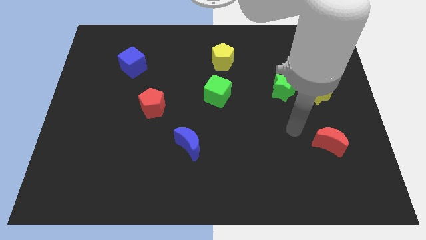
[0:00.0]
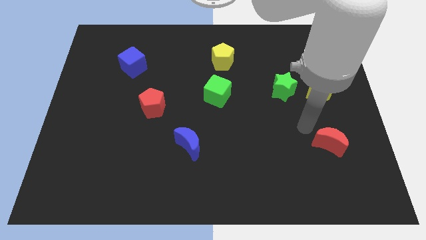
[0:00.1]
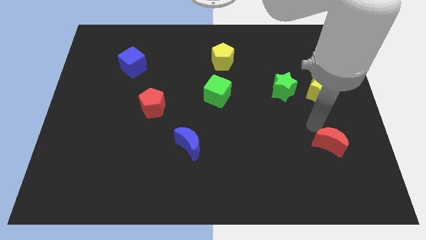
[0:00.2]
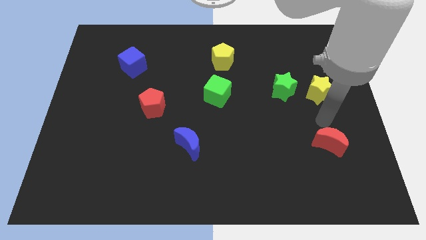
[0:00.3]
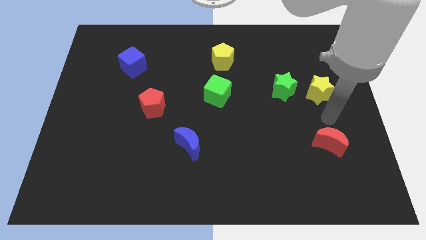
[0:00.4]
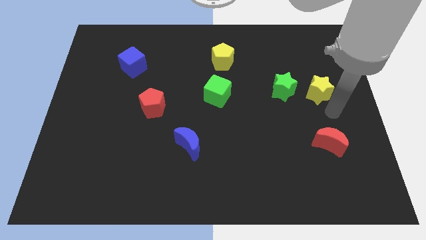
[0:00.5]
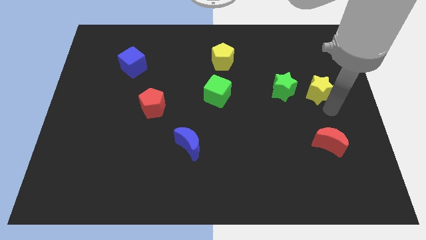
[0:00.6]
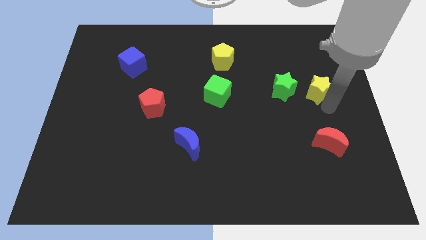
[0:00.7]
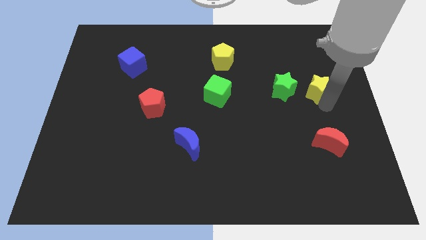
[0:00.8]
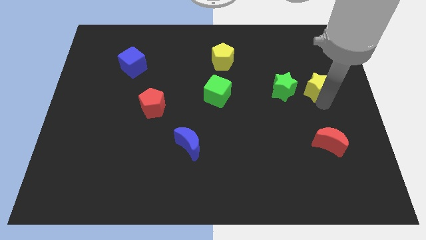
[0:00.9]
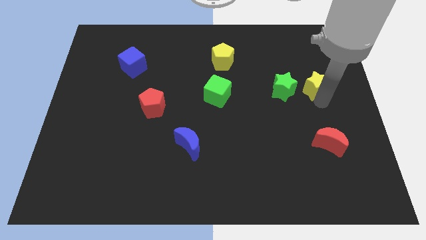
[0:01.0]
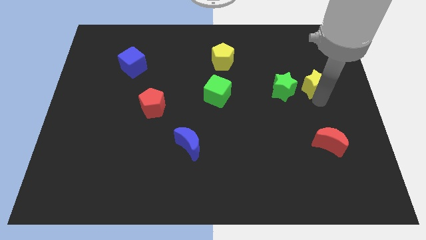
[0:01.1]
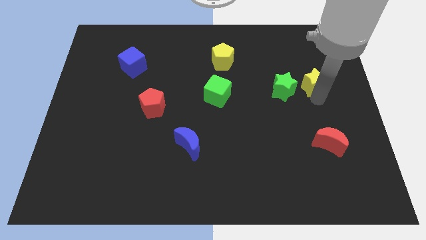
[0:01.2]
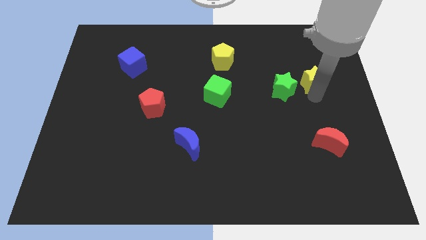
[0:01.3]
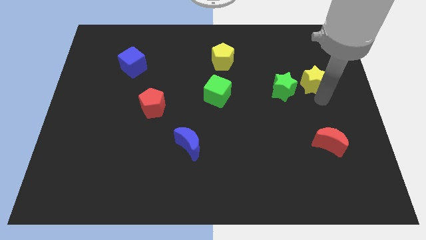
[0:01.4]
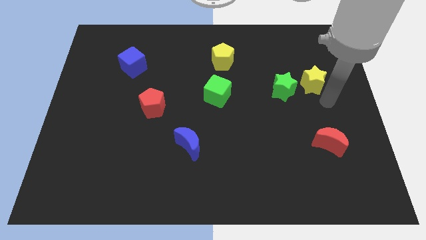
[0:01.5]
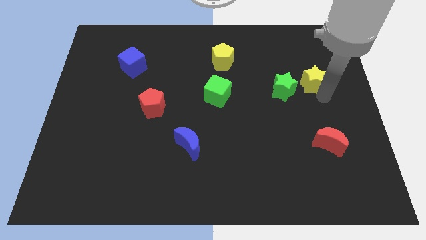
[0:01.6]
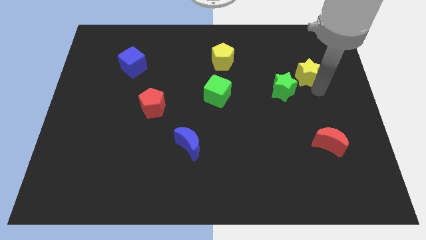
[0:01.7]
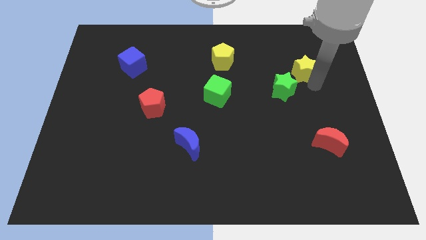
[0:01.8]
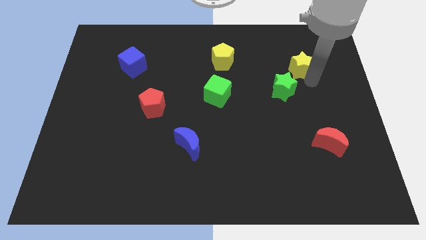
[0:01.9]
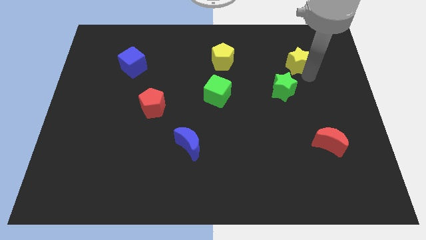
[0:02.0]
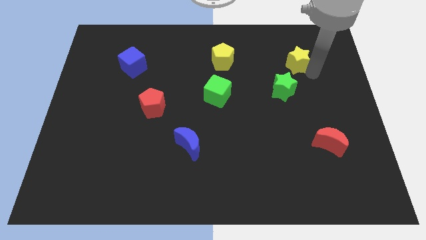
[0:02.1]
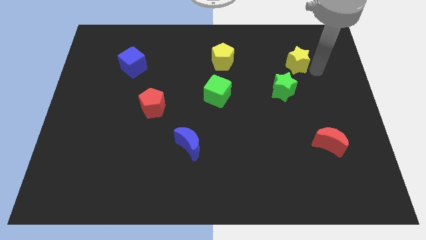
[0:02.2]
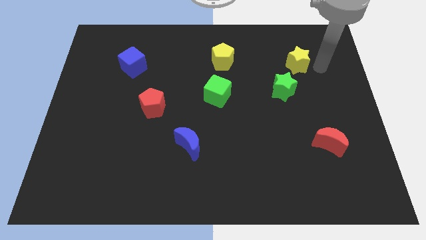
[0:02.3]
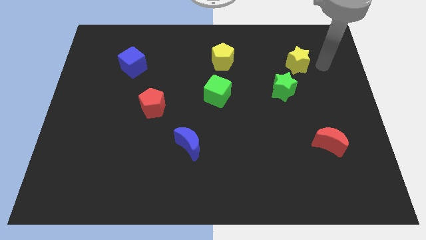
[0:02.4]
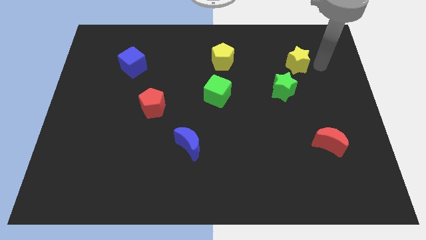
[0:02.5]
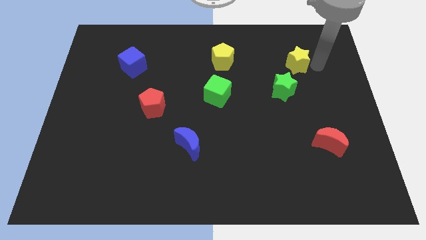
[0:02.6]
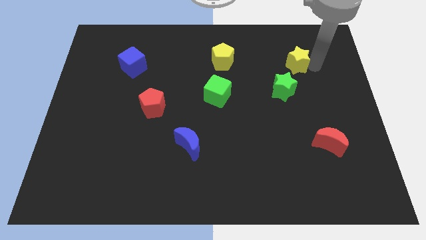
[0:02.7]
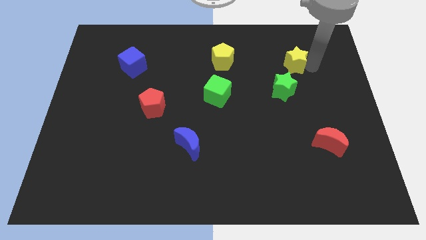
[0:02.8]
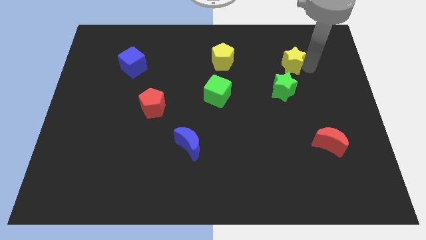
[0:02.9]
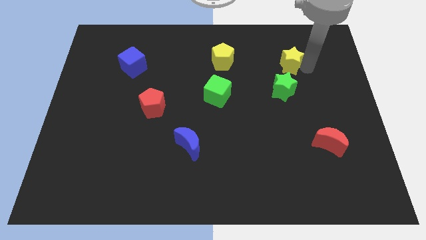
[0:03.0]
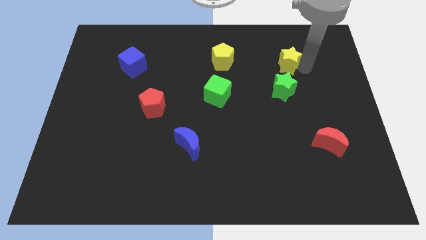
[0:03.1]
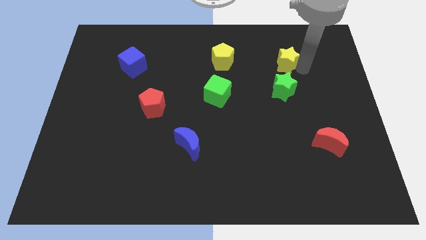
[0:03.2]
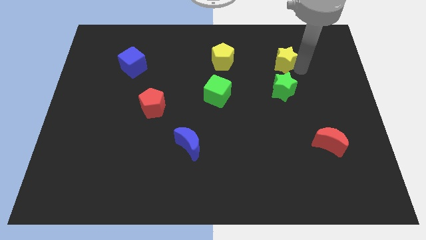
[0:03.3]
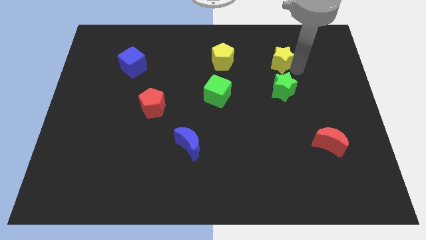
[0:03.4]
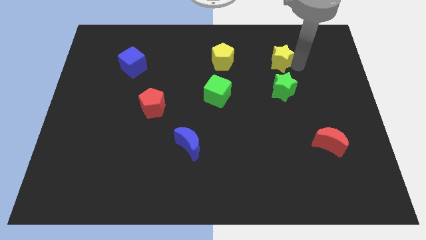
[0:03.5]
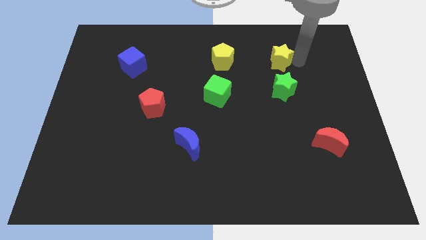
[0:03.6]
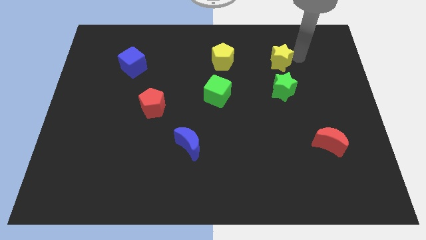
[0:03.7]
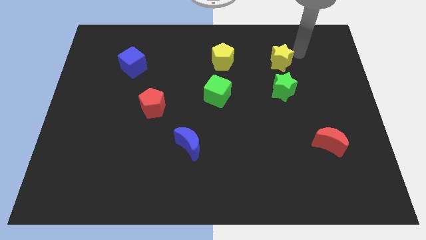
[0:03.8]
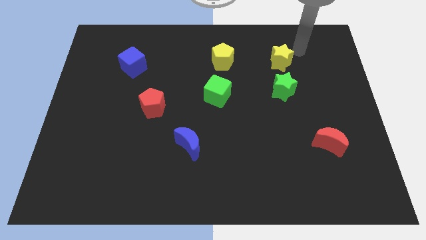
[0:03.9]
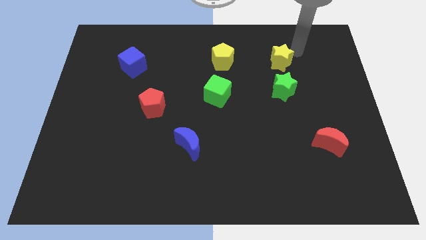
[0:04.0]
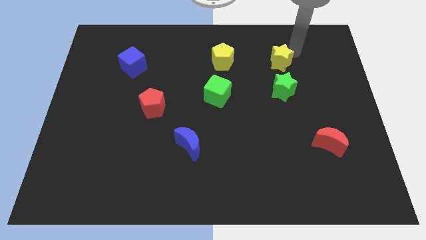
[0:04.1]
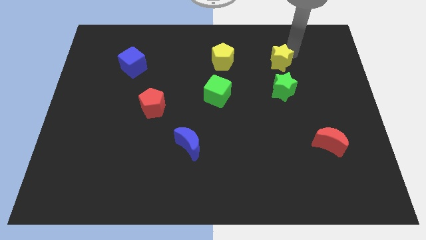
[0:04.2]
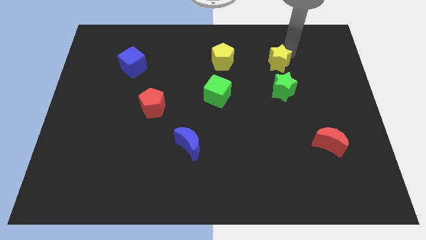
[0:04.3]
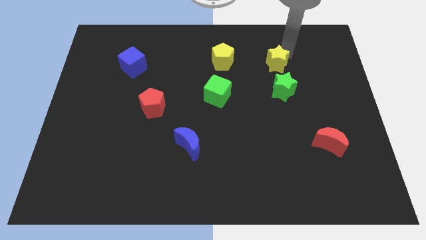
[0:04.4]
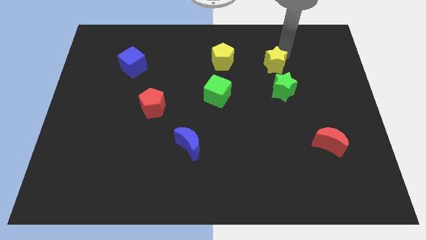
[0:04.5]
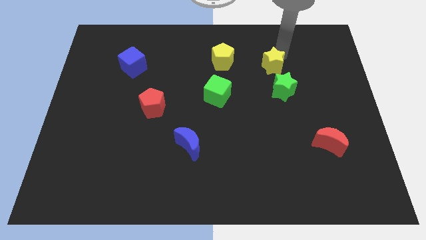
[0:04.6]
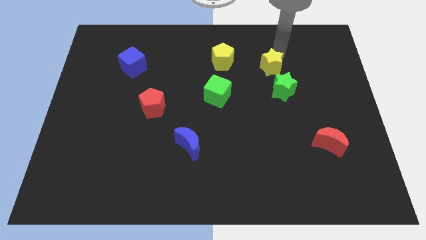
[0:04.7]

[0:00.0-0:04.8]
put the yellow star to the top left of the green star

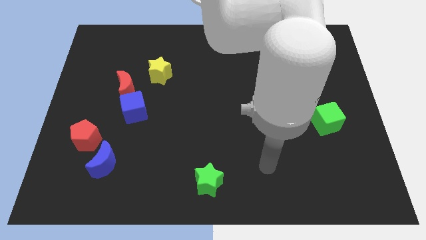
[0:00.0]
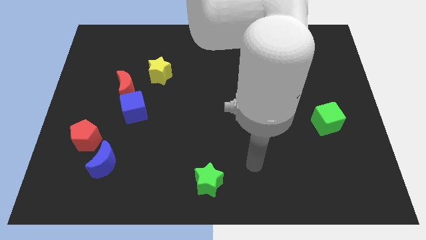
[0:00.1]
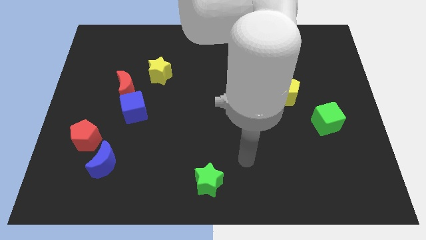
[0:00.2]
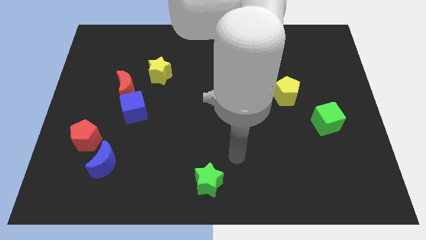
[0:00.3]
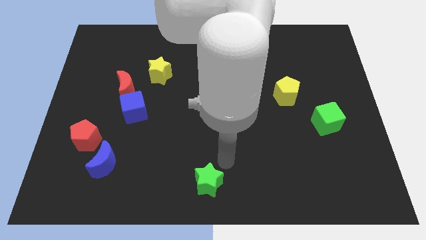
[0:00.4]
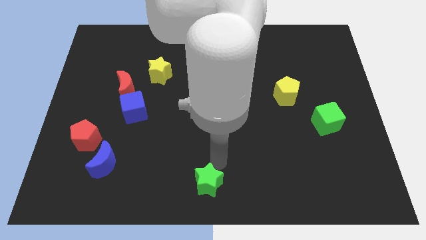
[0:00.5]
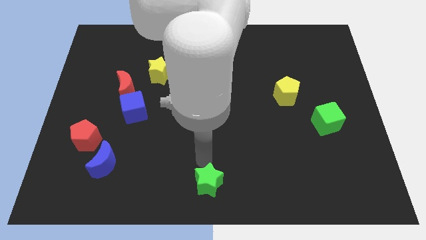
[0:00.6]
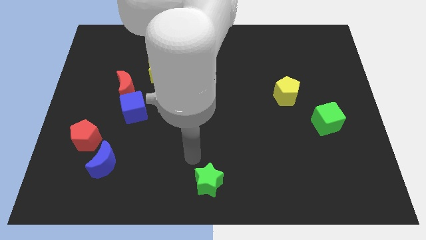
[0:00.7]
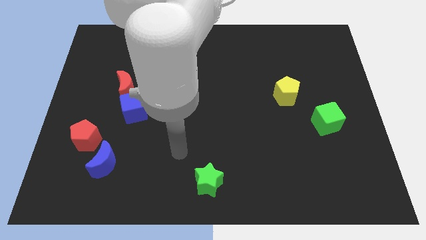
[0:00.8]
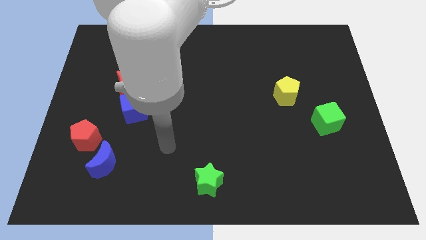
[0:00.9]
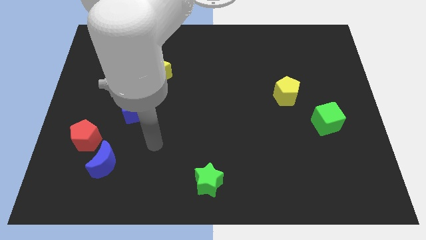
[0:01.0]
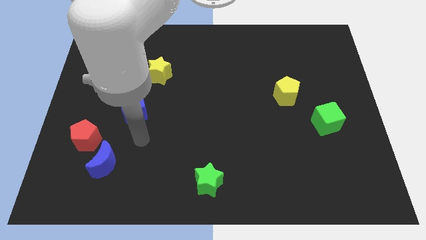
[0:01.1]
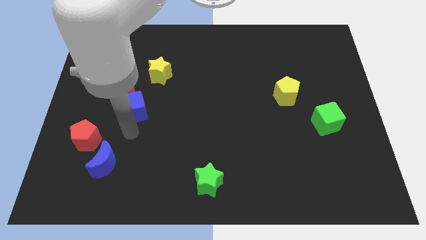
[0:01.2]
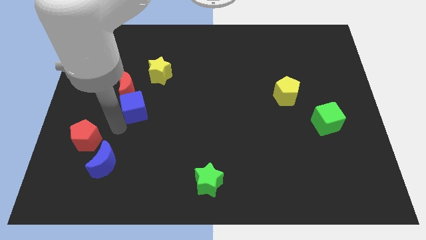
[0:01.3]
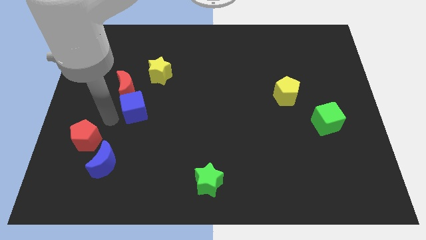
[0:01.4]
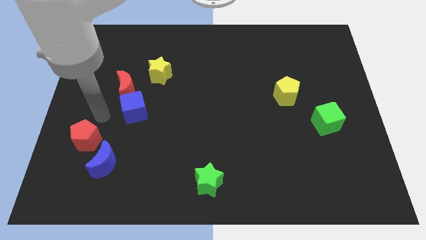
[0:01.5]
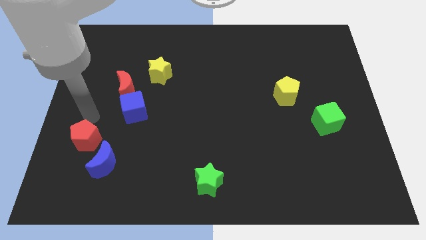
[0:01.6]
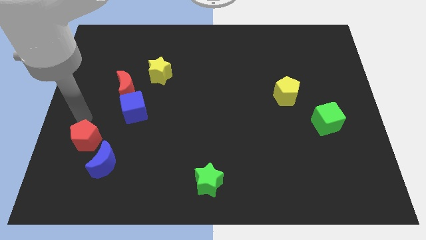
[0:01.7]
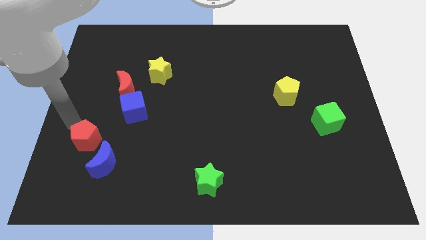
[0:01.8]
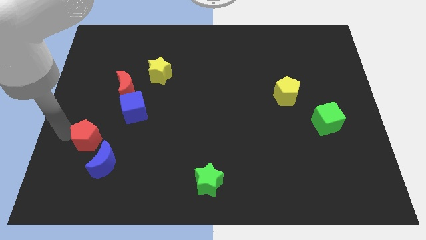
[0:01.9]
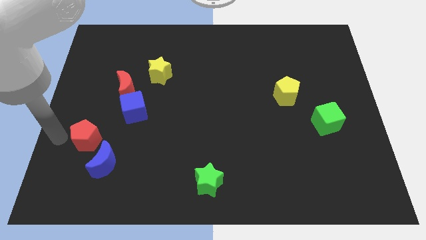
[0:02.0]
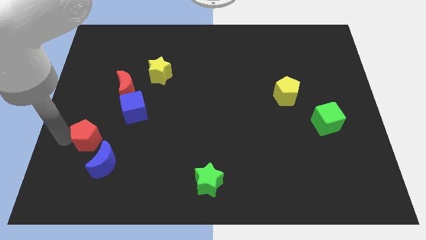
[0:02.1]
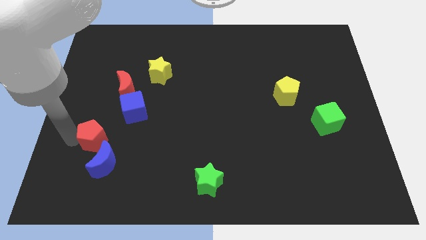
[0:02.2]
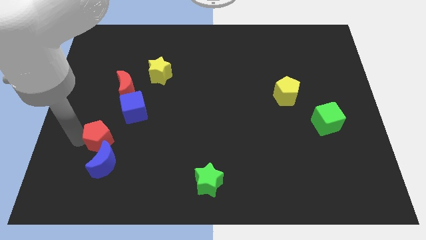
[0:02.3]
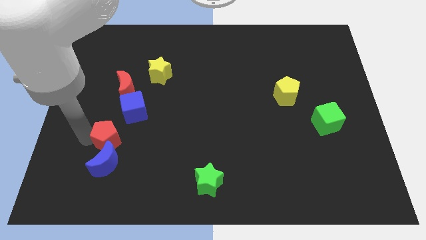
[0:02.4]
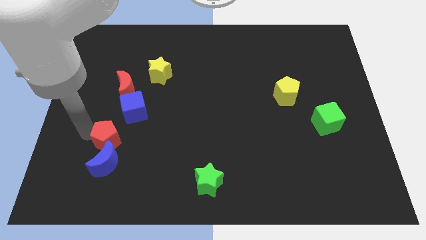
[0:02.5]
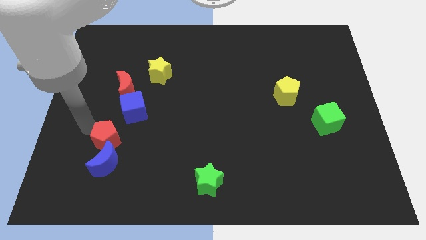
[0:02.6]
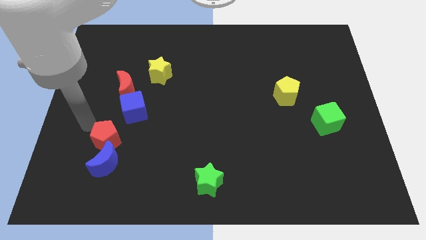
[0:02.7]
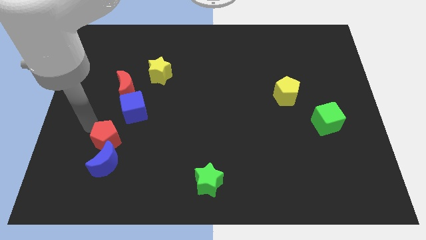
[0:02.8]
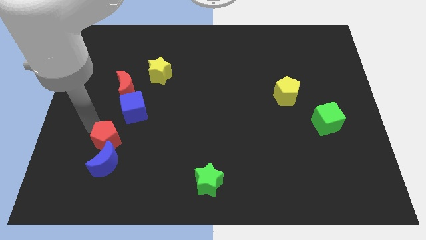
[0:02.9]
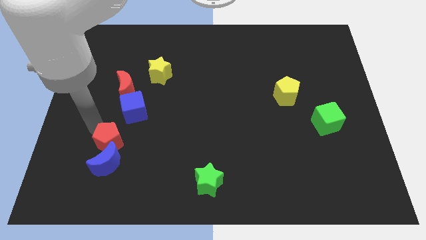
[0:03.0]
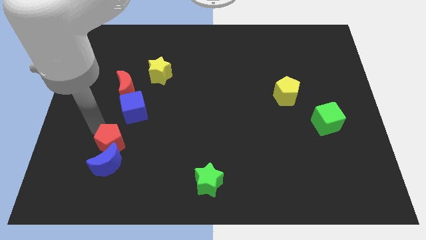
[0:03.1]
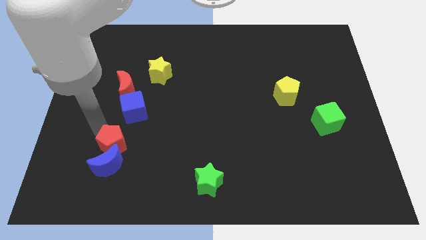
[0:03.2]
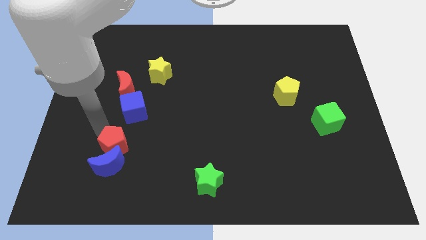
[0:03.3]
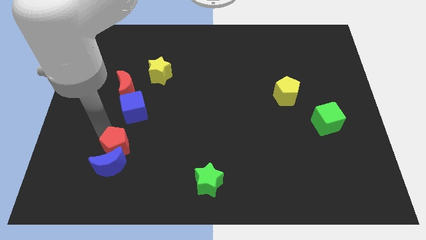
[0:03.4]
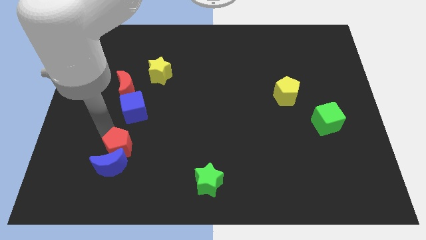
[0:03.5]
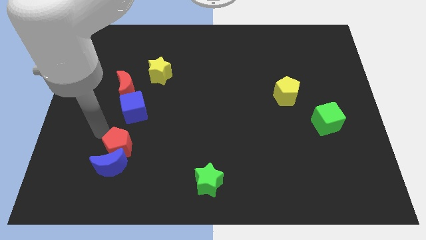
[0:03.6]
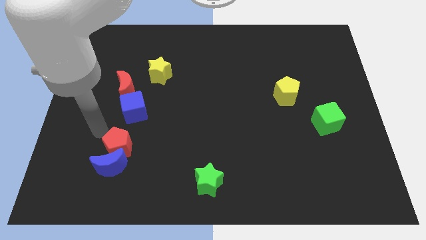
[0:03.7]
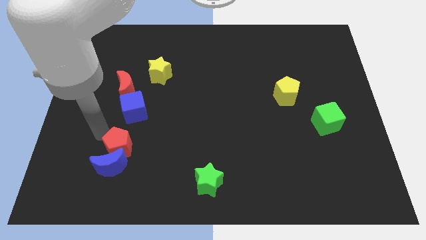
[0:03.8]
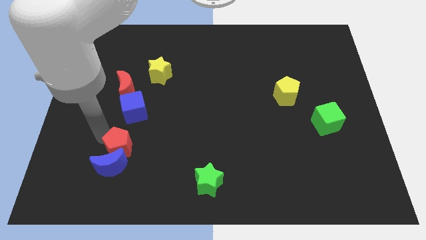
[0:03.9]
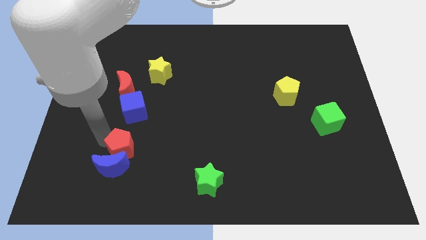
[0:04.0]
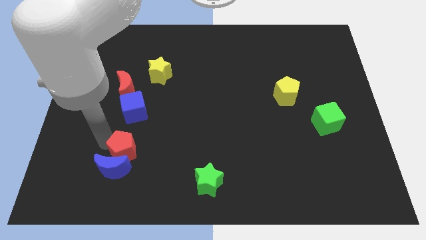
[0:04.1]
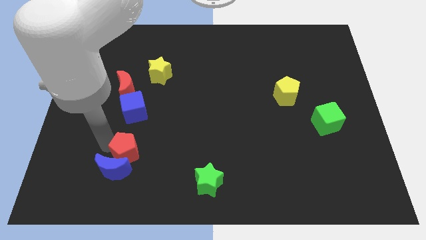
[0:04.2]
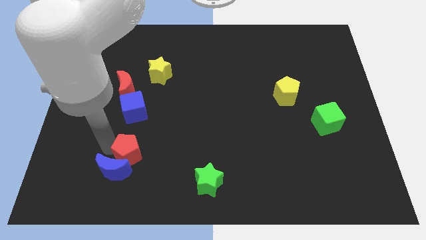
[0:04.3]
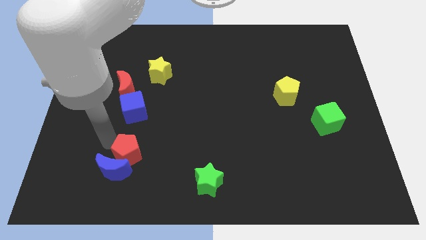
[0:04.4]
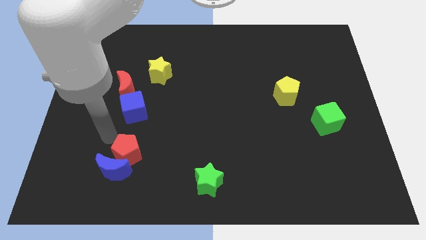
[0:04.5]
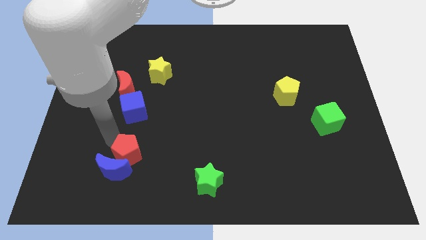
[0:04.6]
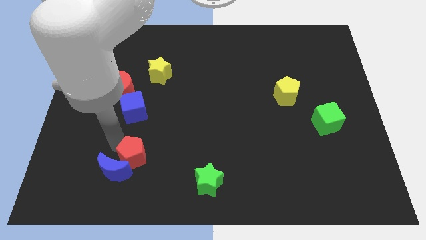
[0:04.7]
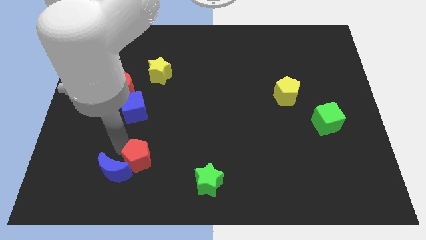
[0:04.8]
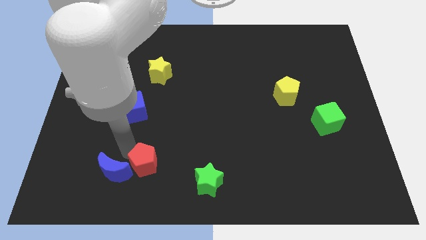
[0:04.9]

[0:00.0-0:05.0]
slide the red pentagon left of the green star
